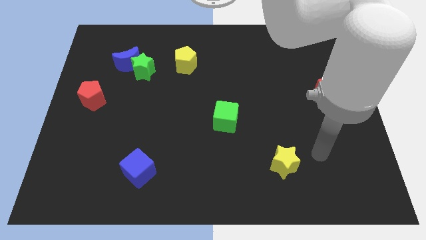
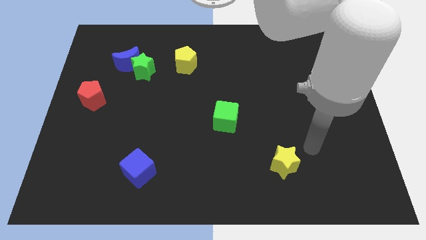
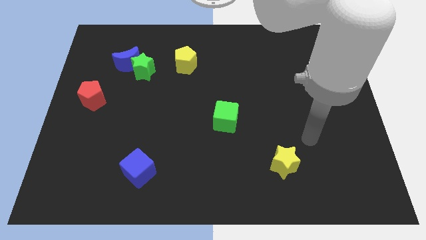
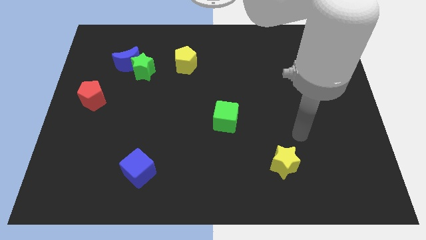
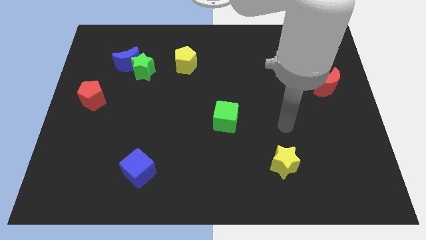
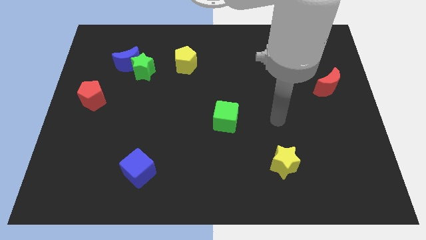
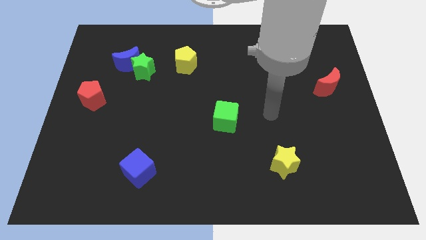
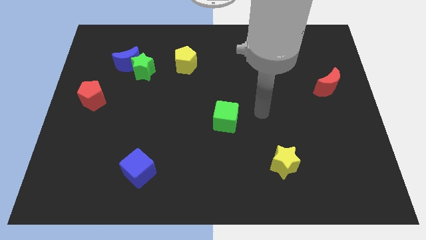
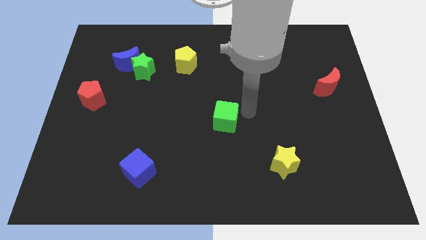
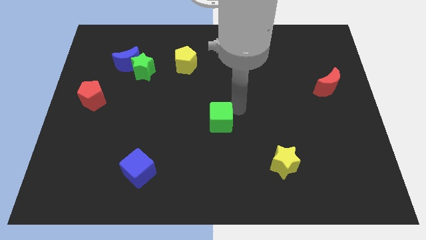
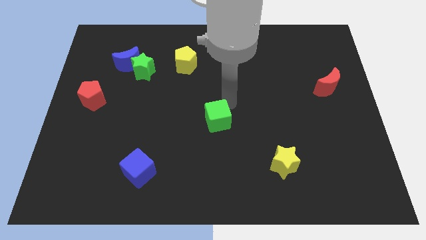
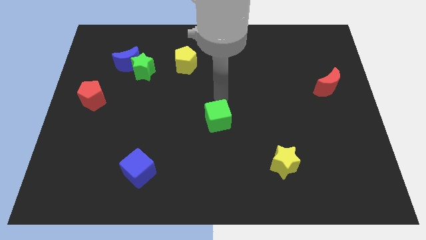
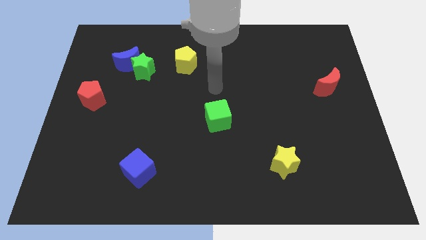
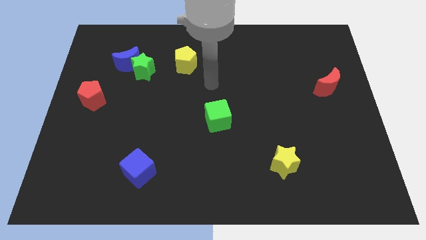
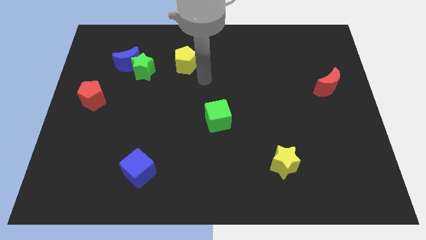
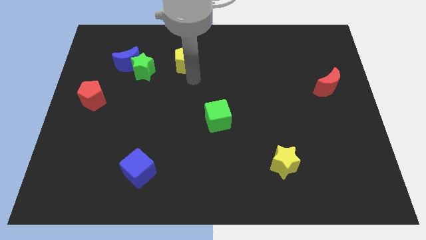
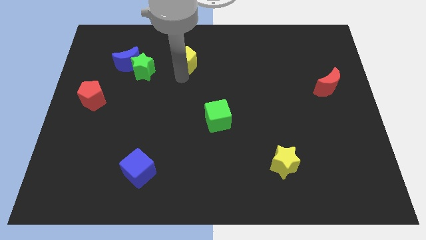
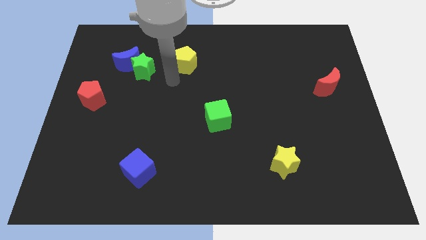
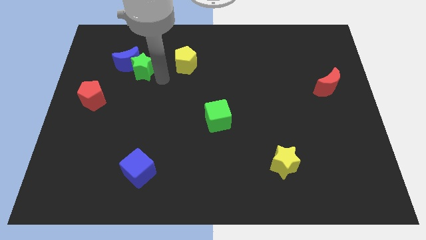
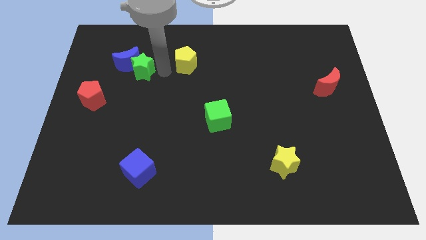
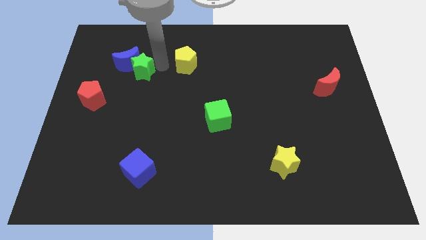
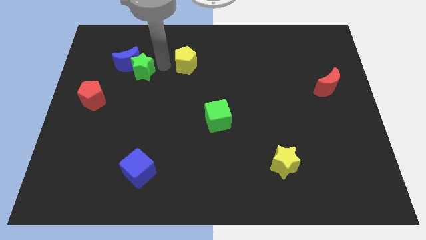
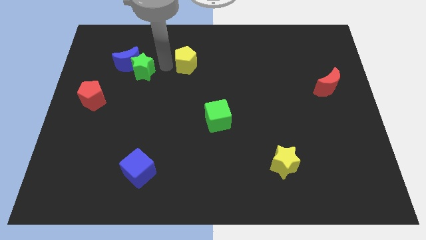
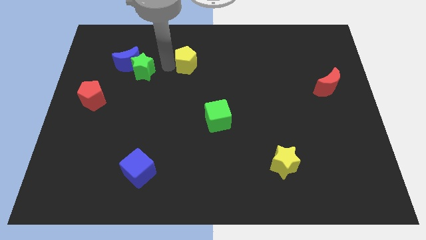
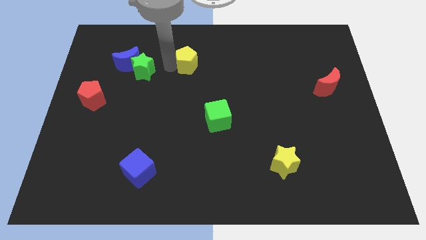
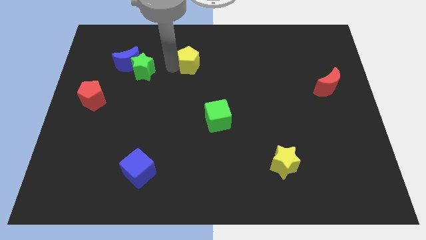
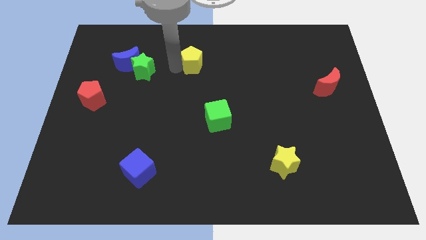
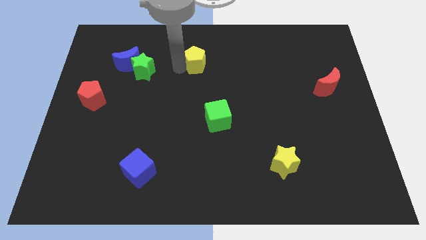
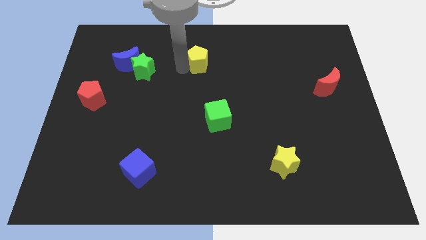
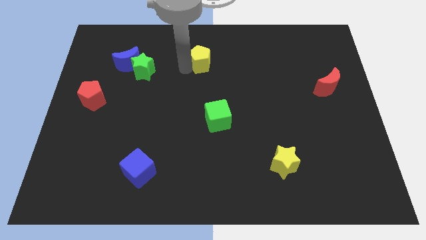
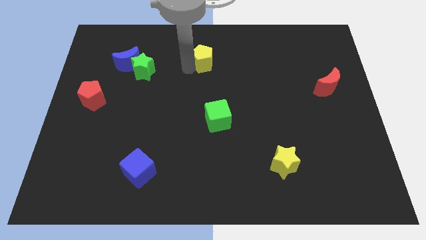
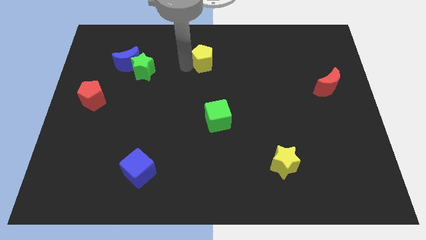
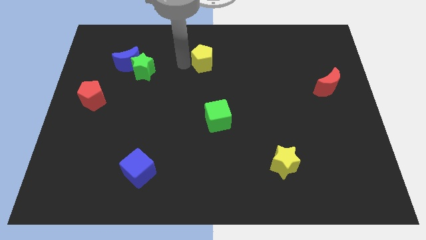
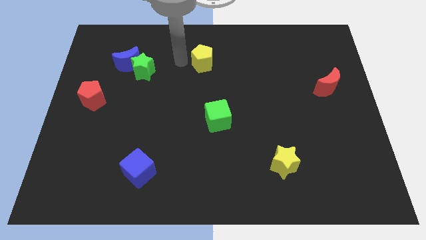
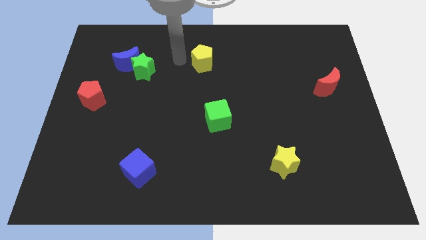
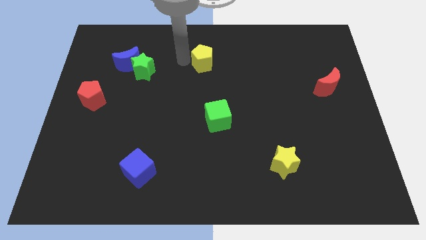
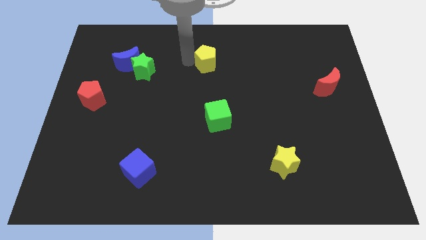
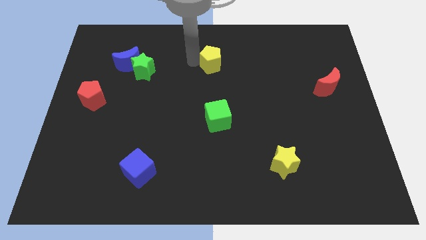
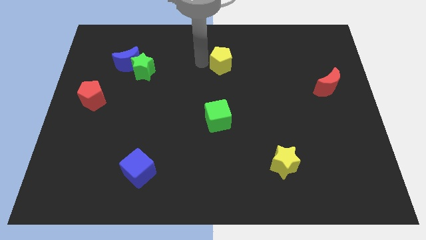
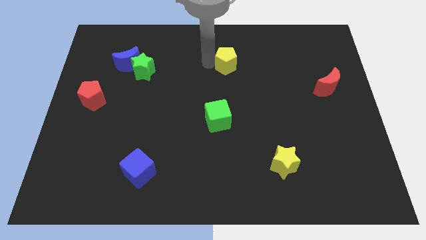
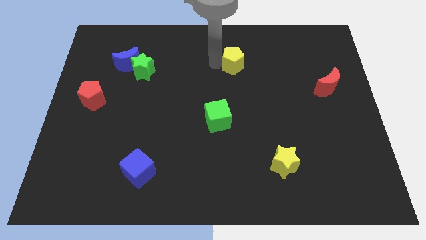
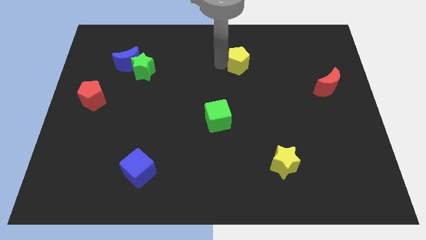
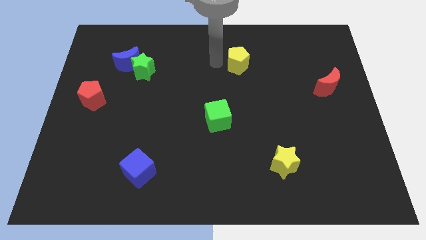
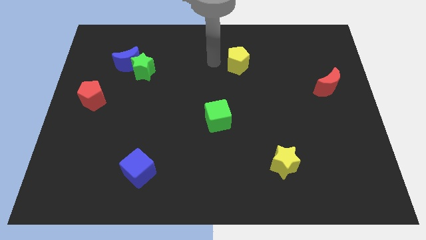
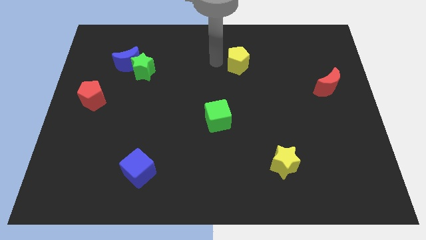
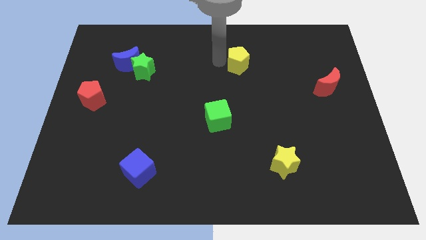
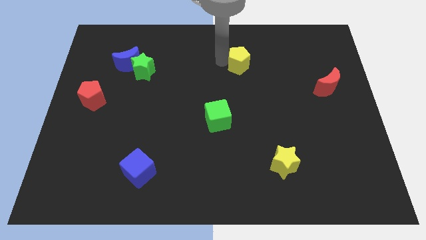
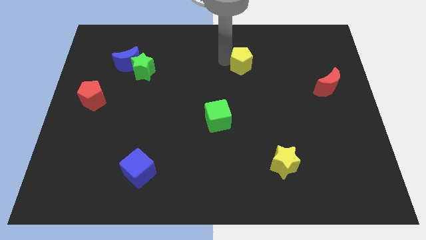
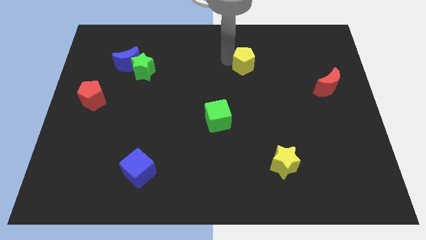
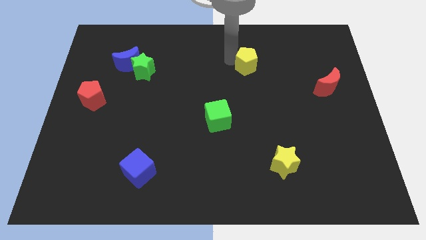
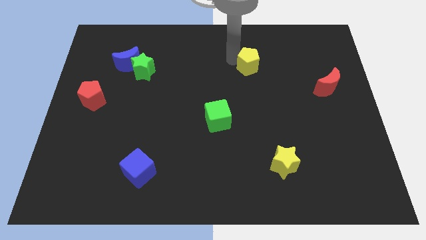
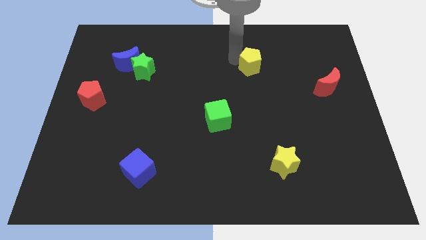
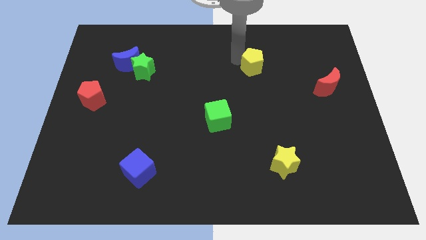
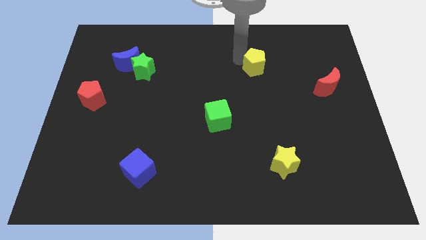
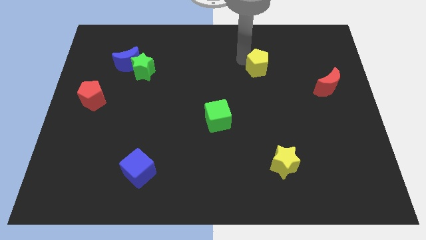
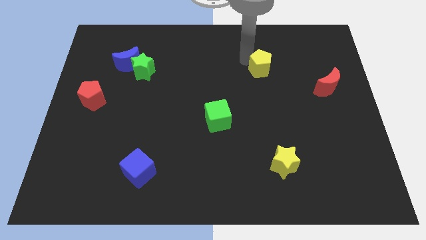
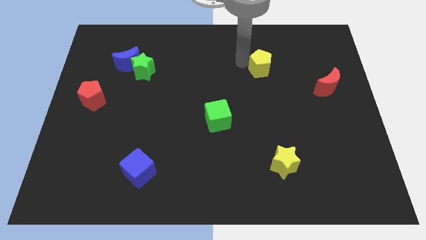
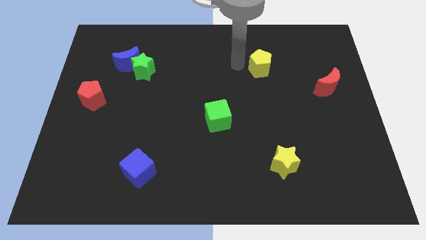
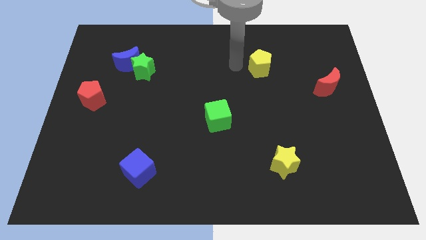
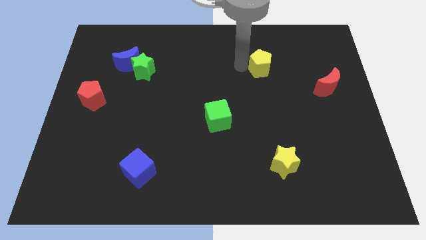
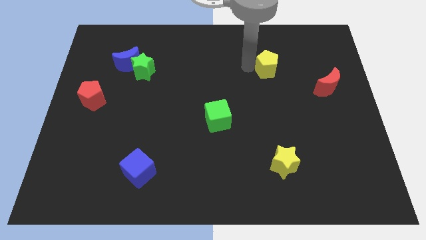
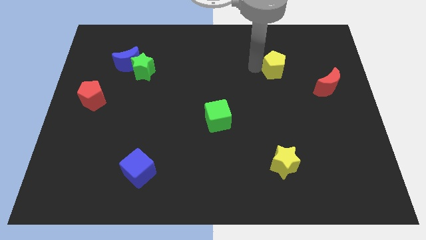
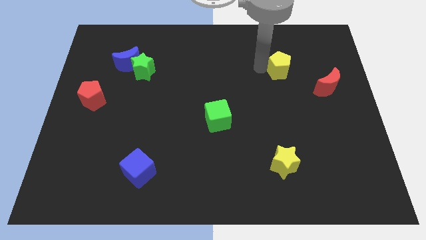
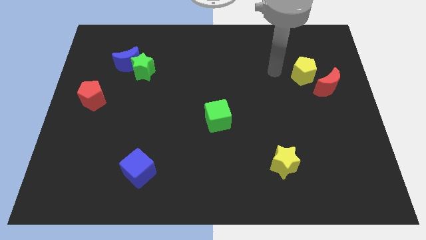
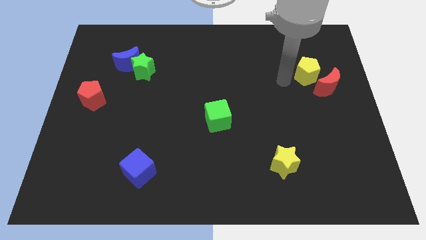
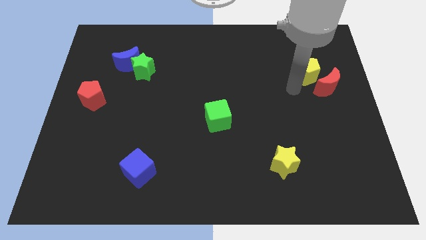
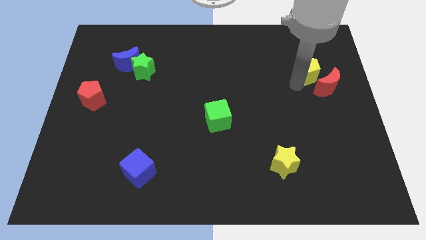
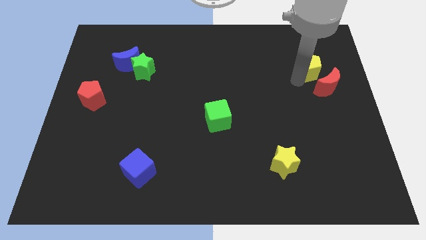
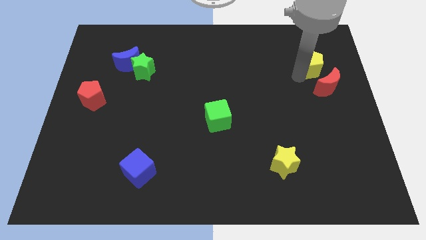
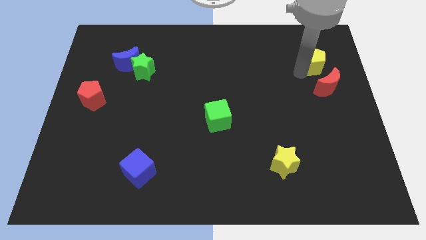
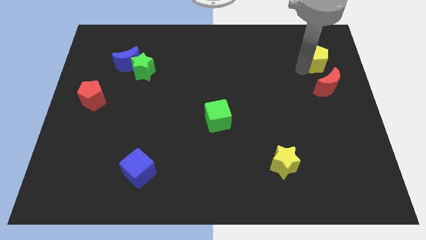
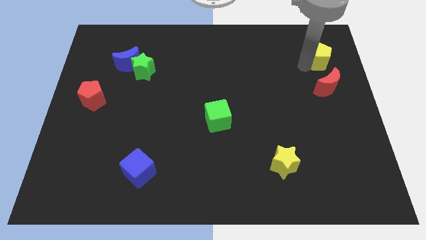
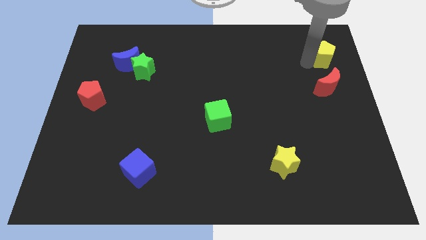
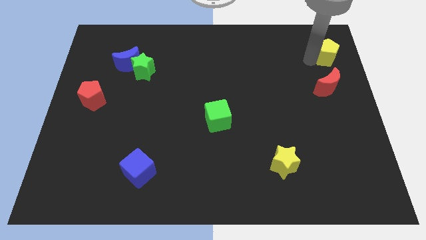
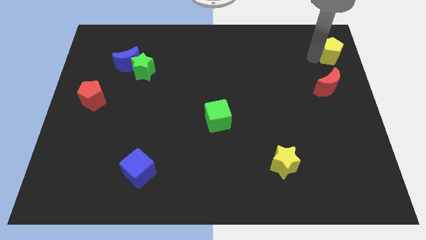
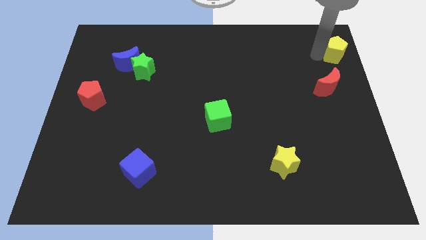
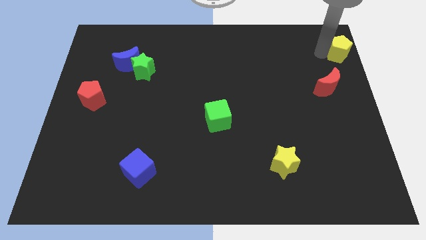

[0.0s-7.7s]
move the yellow pentagon to the top right
